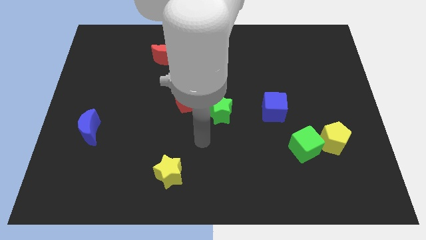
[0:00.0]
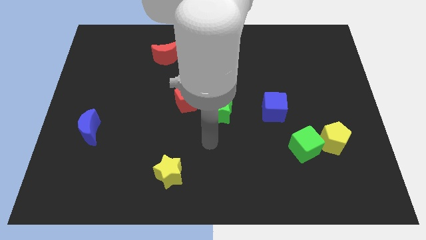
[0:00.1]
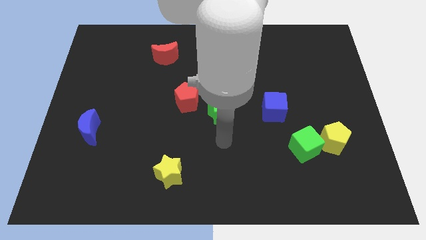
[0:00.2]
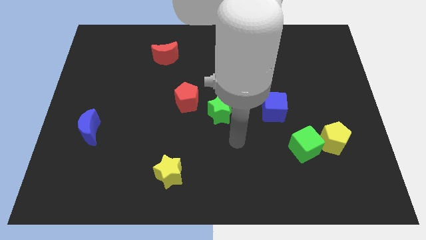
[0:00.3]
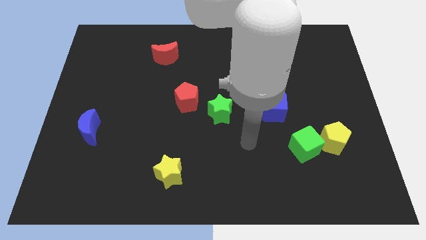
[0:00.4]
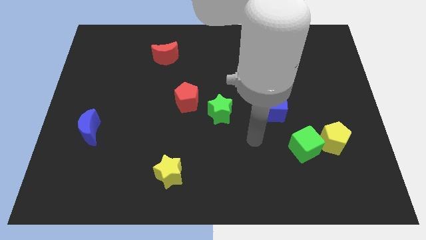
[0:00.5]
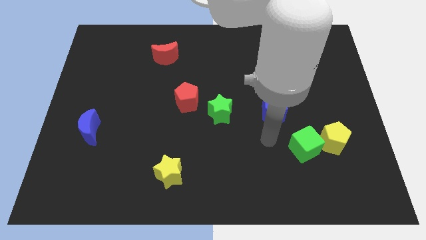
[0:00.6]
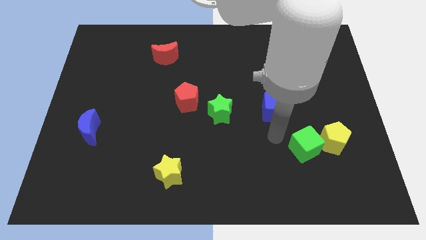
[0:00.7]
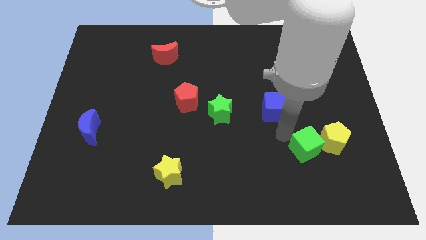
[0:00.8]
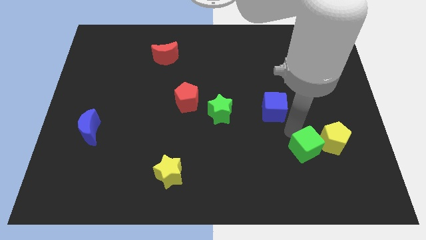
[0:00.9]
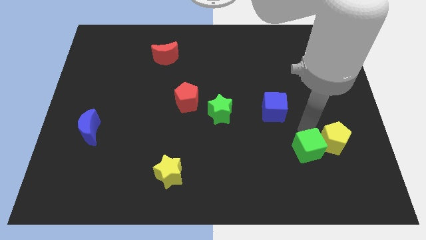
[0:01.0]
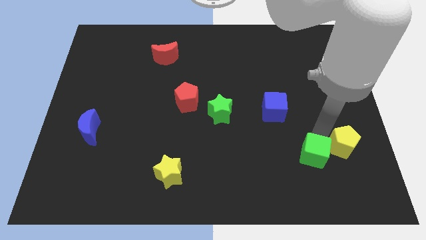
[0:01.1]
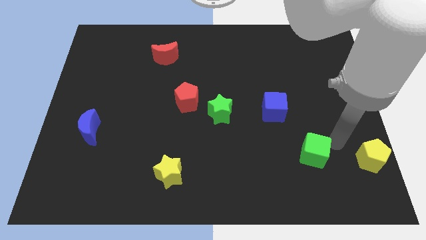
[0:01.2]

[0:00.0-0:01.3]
move the green cube away from the yellow pentagon

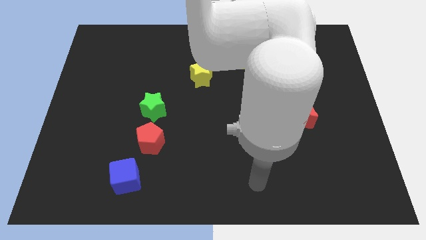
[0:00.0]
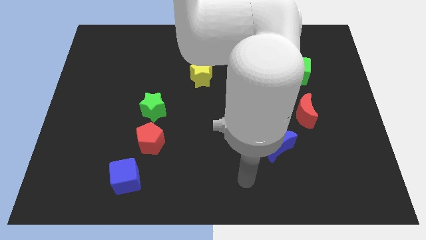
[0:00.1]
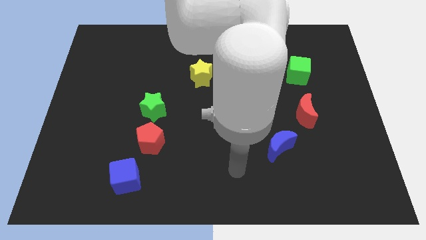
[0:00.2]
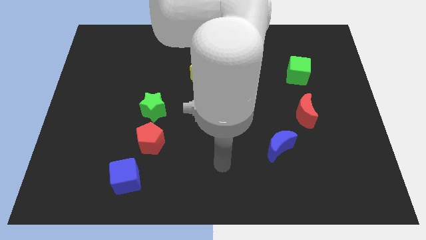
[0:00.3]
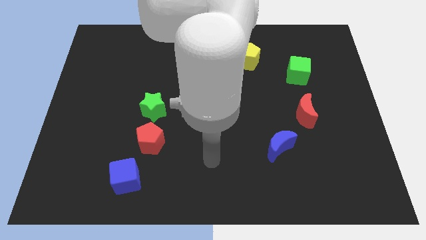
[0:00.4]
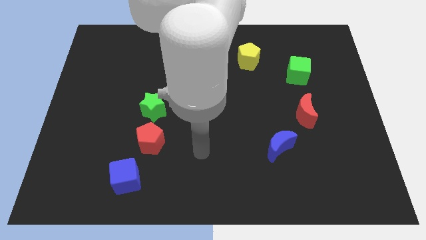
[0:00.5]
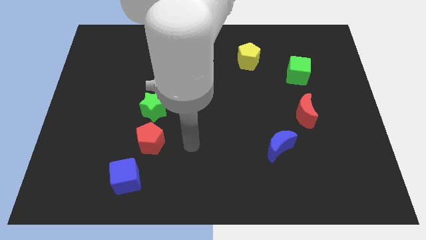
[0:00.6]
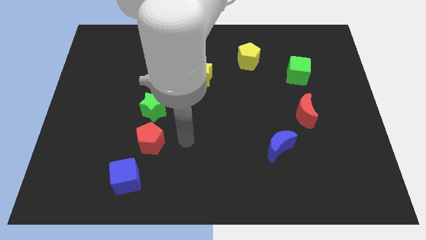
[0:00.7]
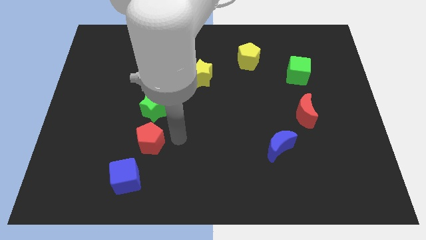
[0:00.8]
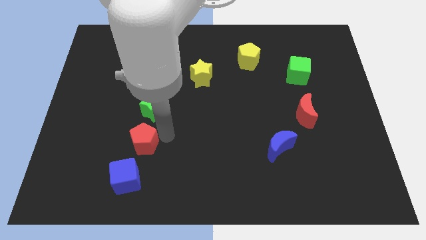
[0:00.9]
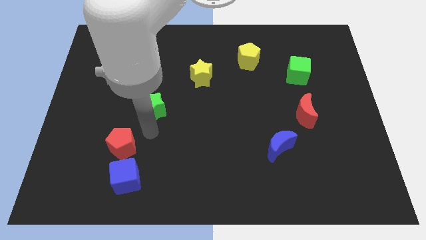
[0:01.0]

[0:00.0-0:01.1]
pull the green star apart from the red pentagon

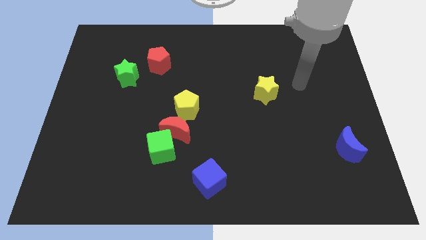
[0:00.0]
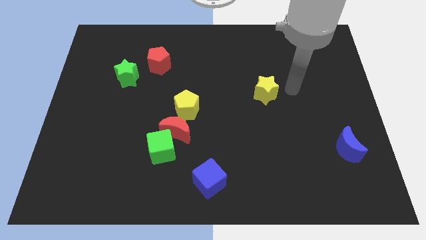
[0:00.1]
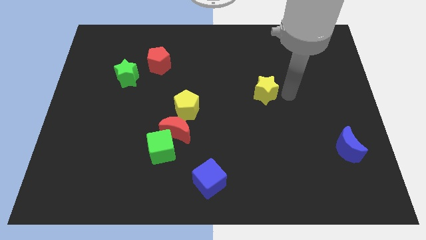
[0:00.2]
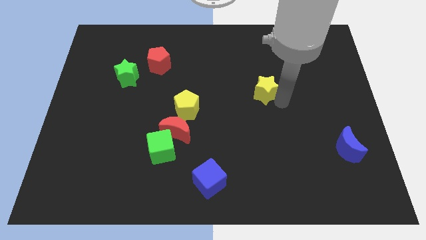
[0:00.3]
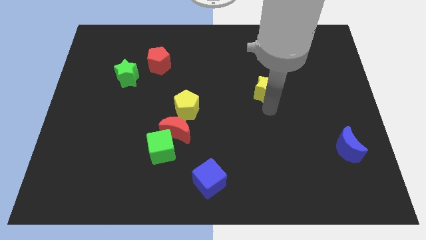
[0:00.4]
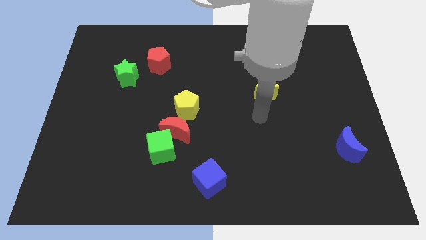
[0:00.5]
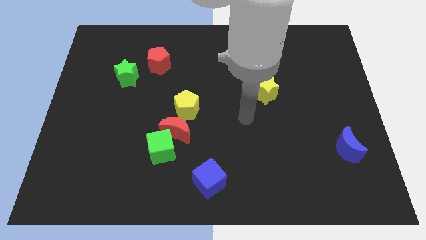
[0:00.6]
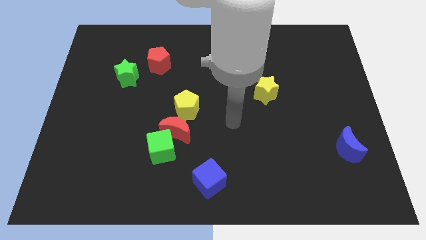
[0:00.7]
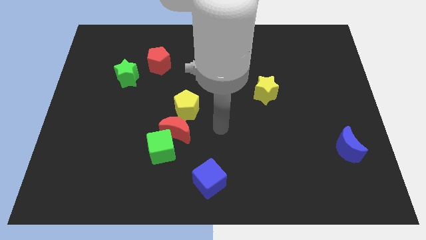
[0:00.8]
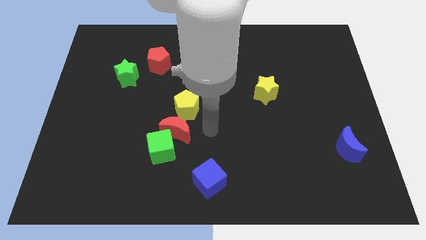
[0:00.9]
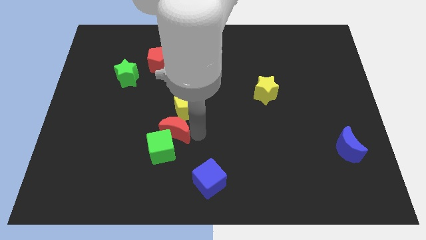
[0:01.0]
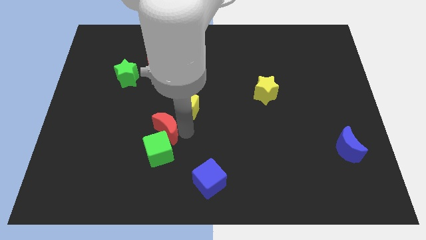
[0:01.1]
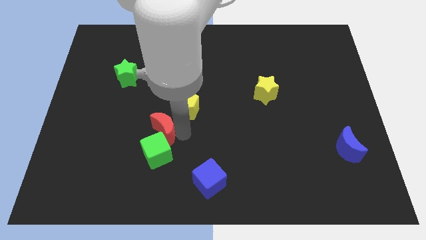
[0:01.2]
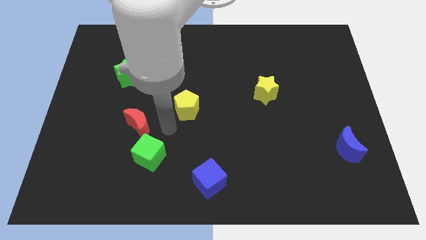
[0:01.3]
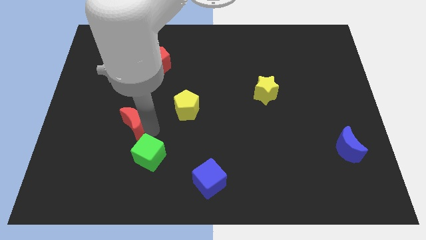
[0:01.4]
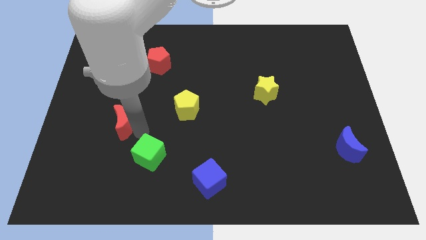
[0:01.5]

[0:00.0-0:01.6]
pull the green cube apart from the red moon

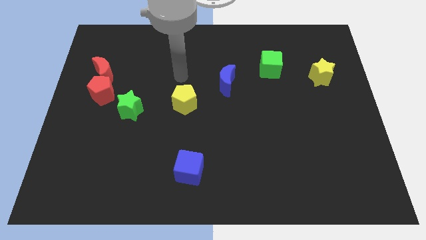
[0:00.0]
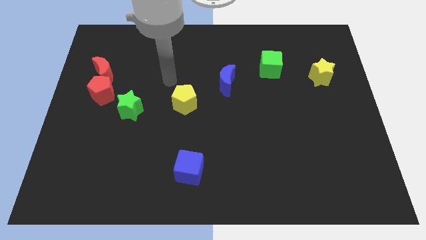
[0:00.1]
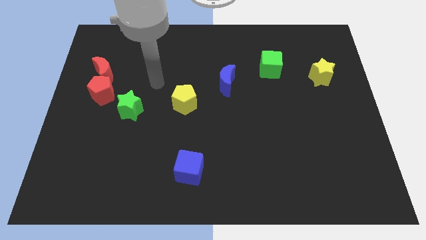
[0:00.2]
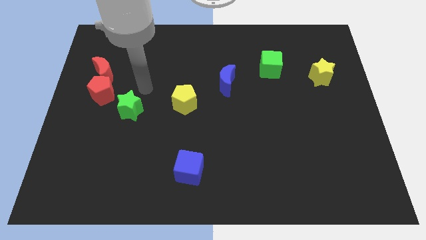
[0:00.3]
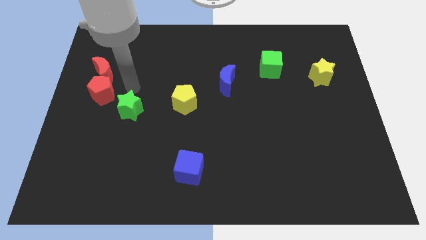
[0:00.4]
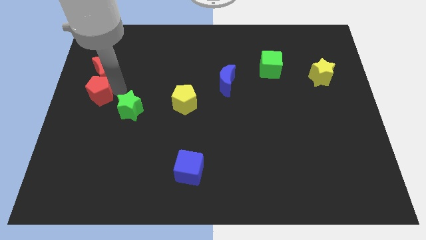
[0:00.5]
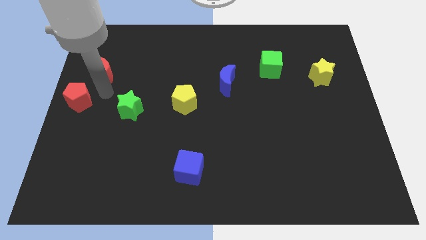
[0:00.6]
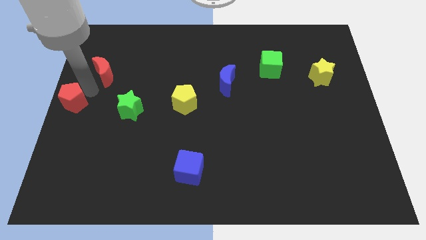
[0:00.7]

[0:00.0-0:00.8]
move the red moon away from the red pentagon

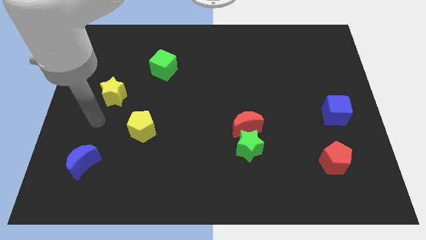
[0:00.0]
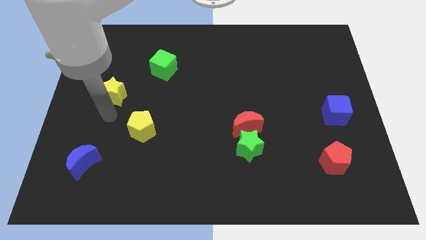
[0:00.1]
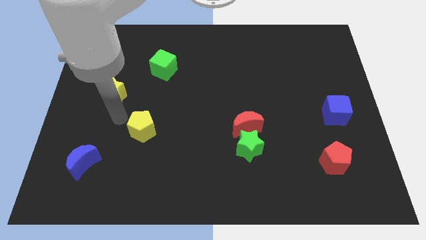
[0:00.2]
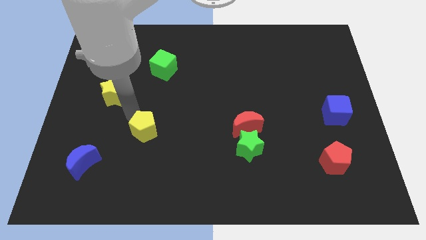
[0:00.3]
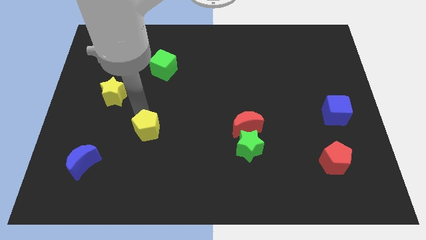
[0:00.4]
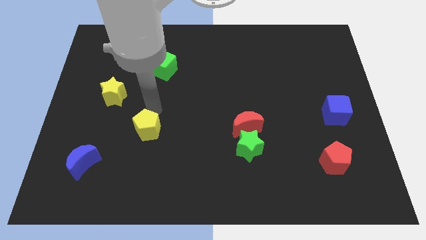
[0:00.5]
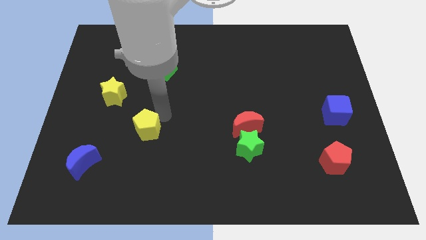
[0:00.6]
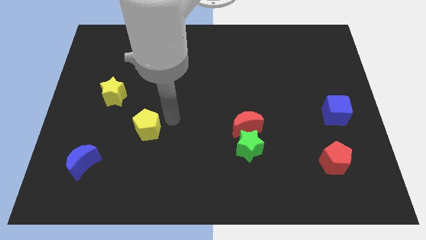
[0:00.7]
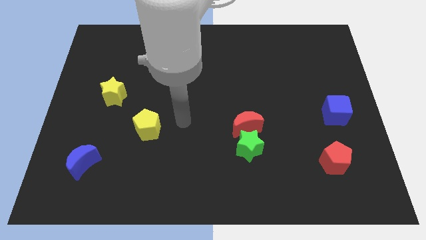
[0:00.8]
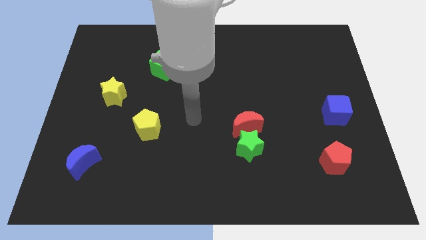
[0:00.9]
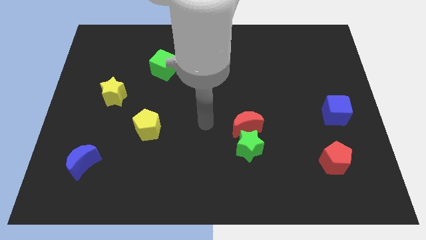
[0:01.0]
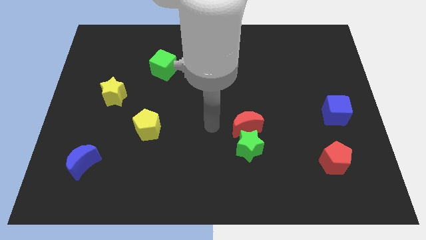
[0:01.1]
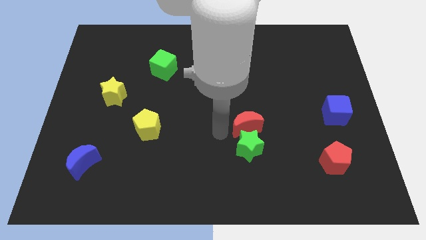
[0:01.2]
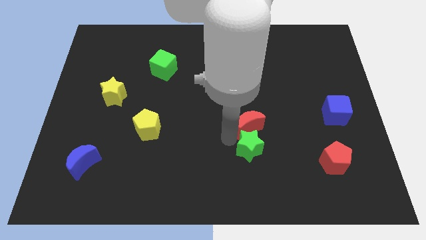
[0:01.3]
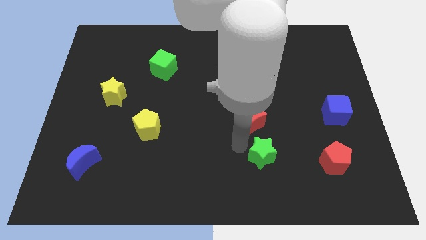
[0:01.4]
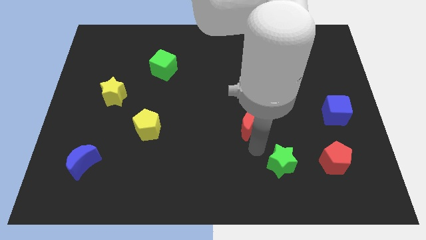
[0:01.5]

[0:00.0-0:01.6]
move the red moon away from the green star

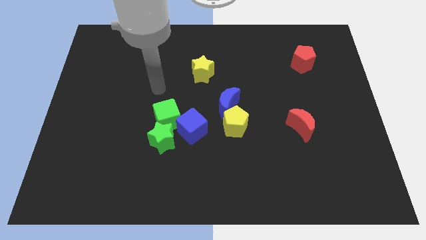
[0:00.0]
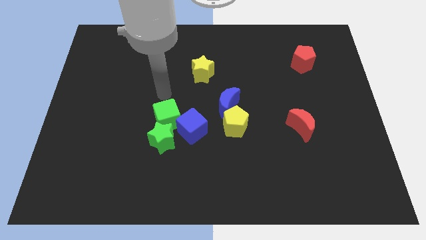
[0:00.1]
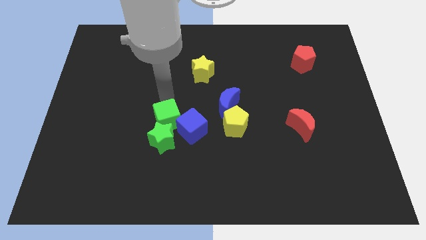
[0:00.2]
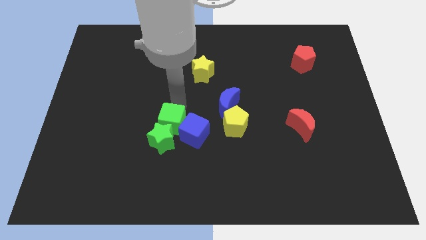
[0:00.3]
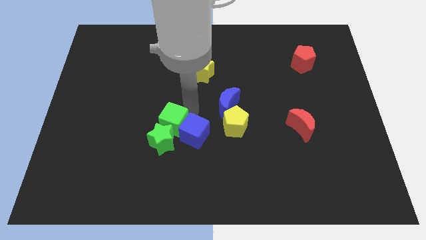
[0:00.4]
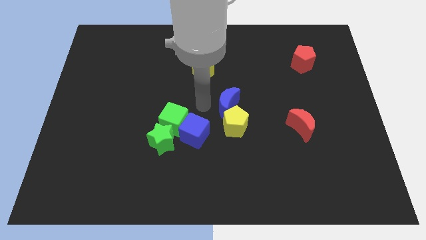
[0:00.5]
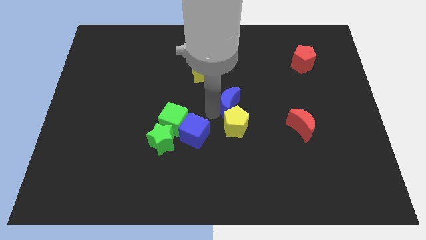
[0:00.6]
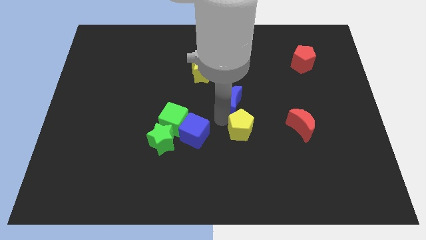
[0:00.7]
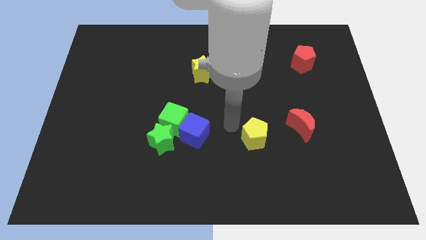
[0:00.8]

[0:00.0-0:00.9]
separate the blue moon from the yellow pentagon

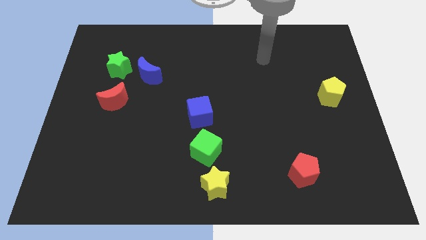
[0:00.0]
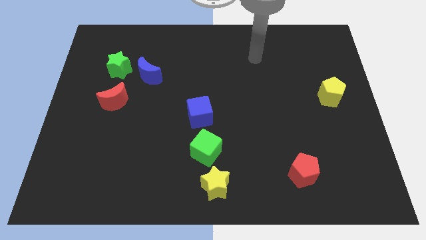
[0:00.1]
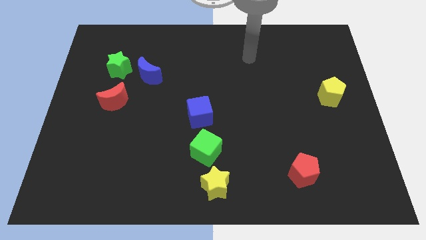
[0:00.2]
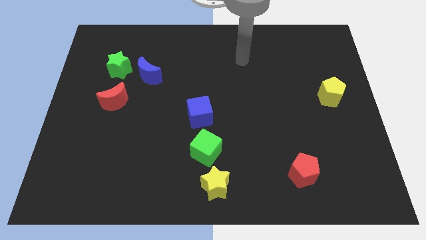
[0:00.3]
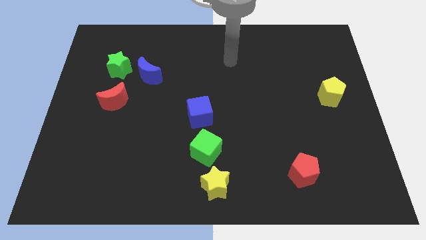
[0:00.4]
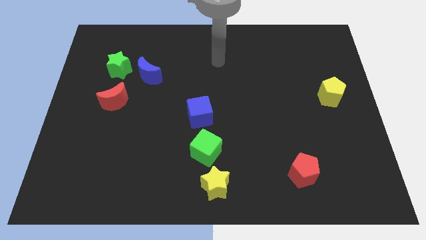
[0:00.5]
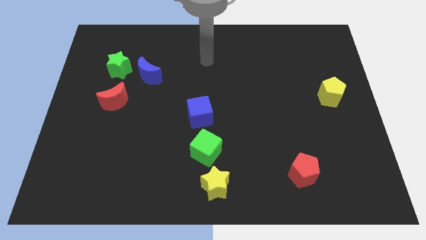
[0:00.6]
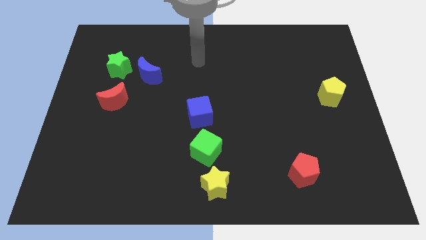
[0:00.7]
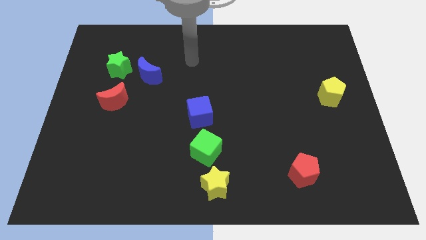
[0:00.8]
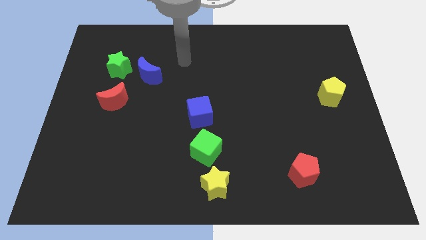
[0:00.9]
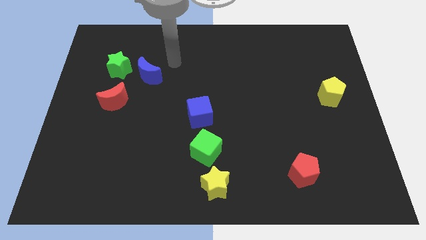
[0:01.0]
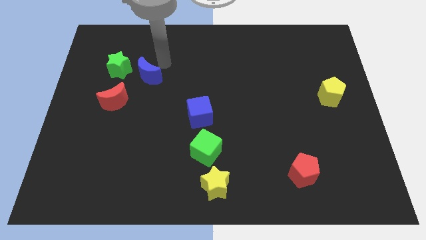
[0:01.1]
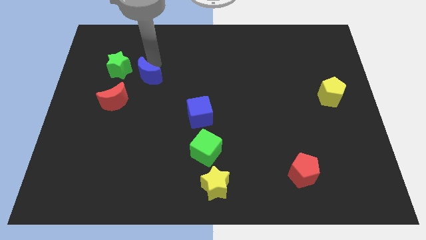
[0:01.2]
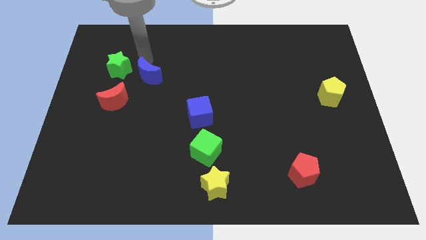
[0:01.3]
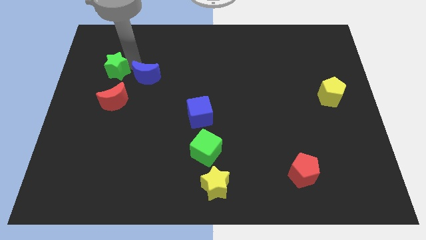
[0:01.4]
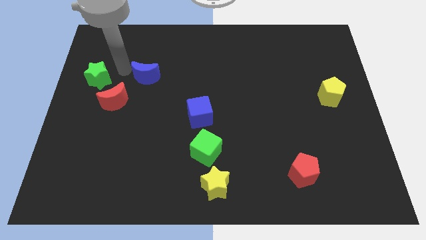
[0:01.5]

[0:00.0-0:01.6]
separate the blue moon from the green star

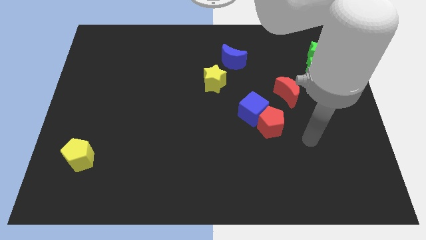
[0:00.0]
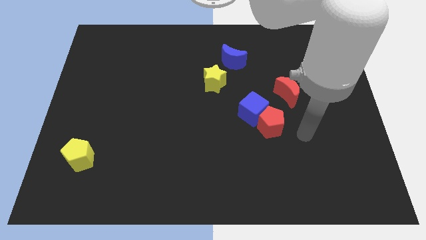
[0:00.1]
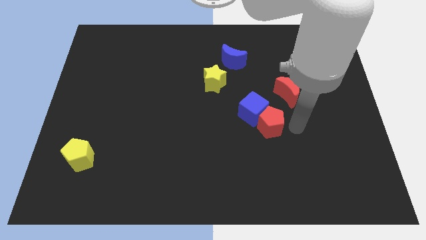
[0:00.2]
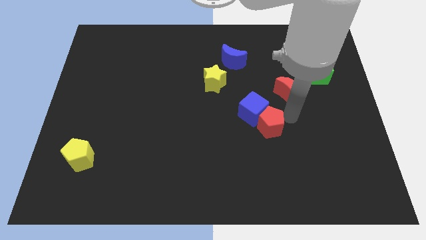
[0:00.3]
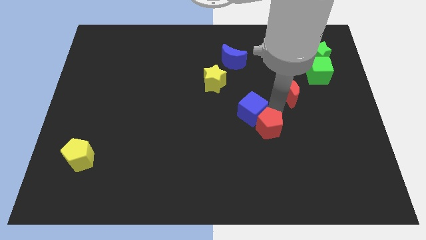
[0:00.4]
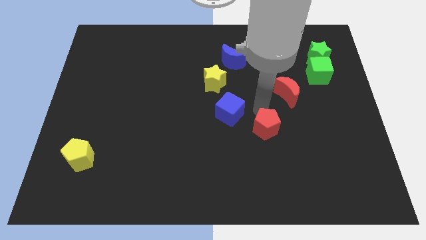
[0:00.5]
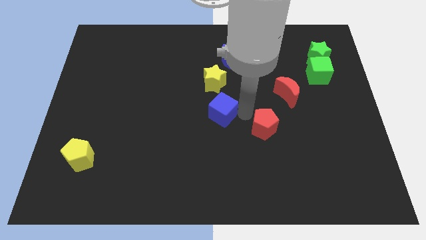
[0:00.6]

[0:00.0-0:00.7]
pull the red pentagon apart from the blue cube
